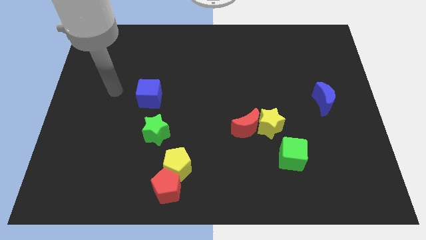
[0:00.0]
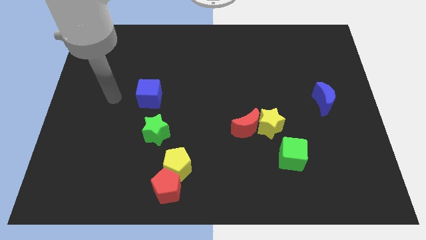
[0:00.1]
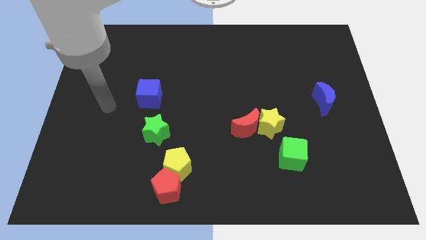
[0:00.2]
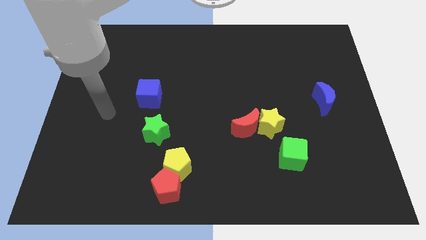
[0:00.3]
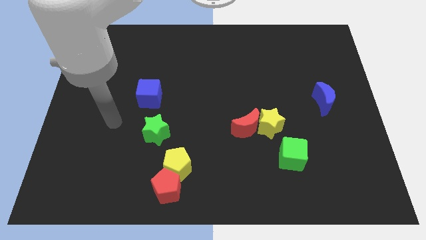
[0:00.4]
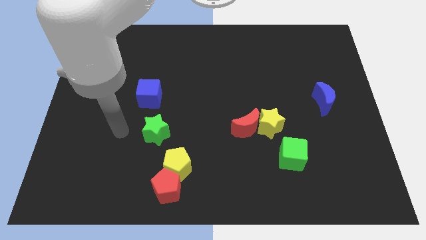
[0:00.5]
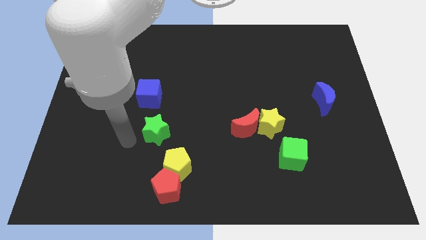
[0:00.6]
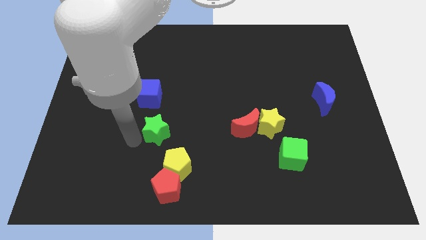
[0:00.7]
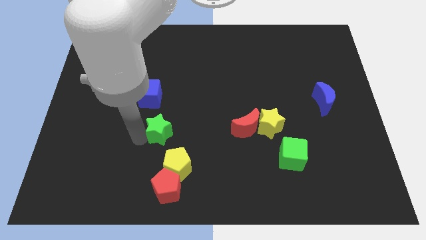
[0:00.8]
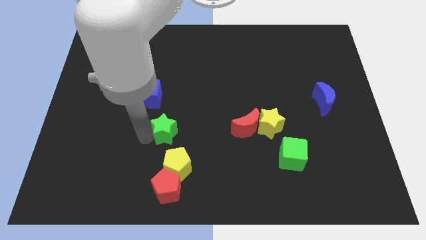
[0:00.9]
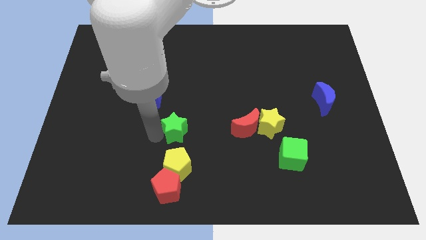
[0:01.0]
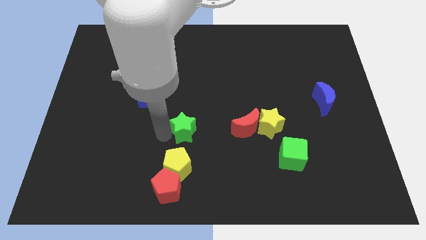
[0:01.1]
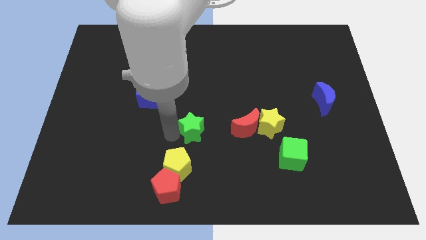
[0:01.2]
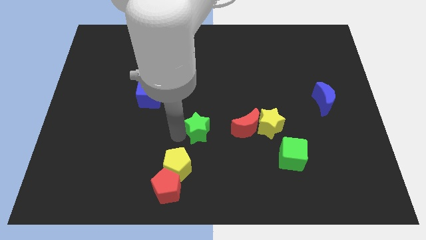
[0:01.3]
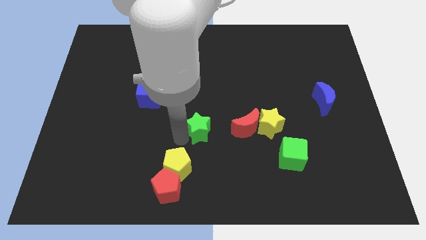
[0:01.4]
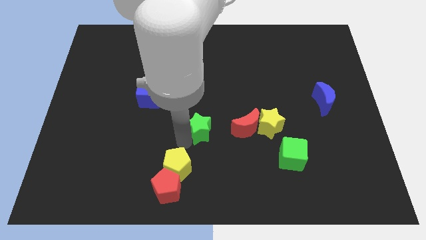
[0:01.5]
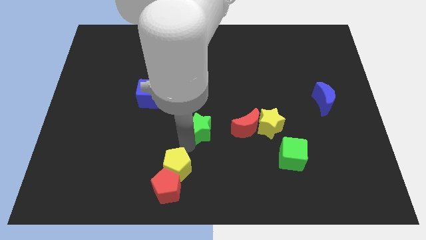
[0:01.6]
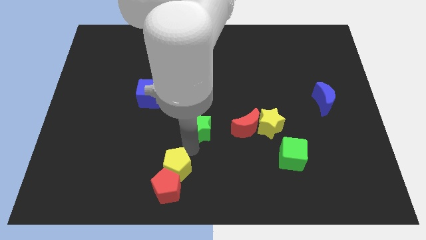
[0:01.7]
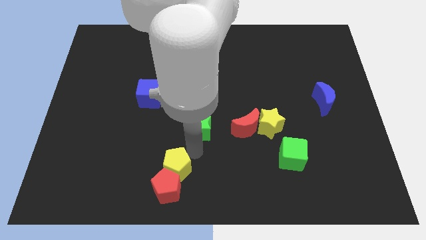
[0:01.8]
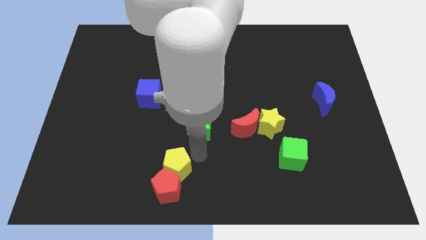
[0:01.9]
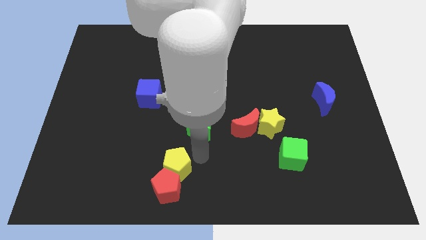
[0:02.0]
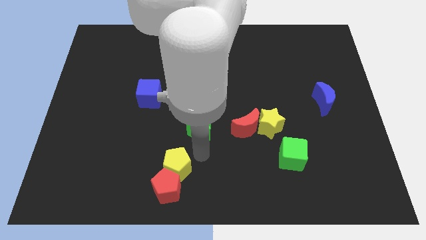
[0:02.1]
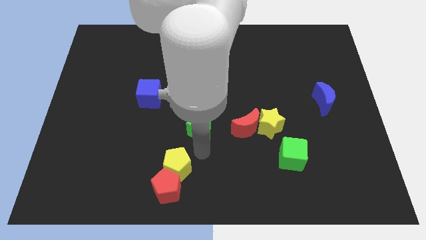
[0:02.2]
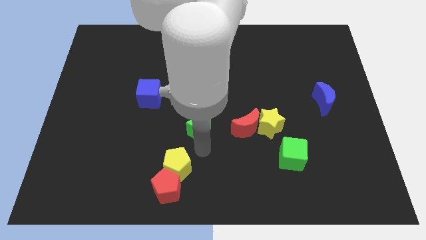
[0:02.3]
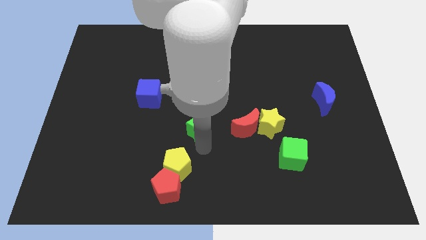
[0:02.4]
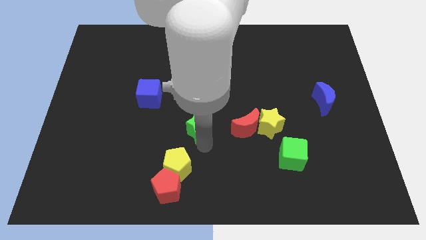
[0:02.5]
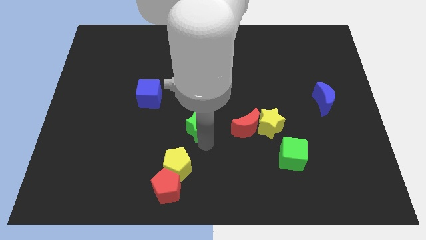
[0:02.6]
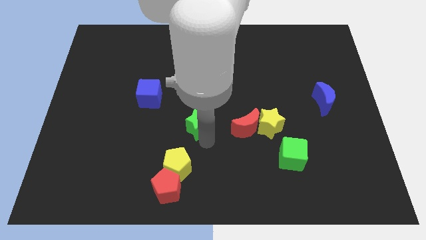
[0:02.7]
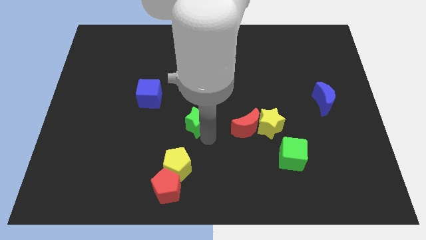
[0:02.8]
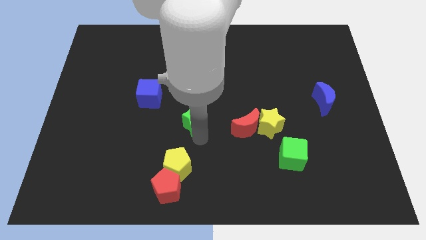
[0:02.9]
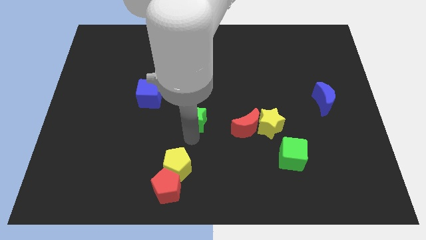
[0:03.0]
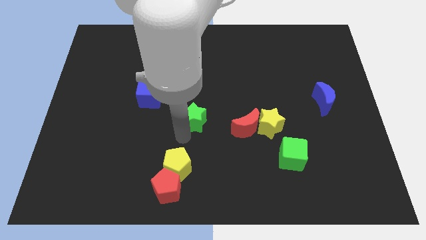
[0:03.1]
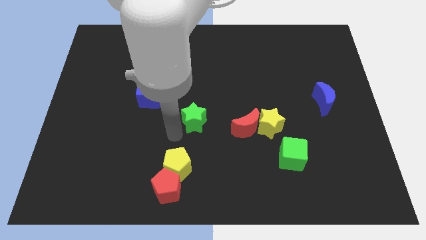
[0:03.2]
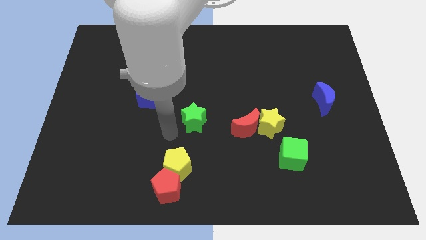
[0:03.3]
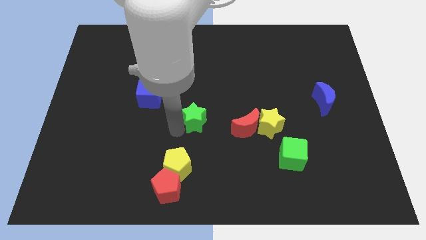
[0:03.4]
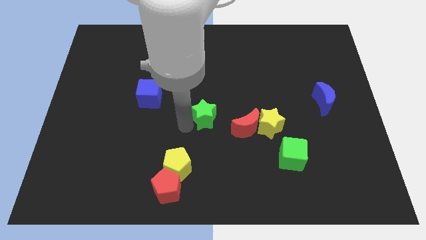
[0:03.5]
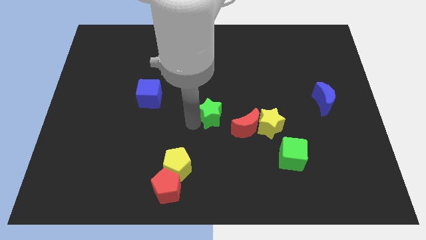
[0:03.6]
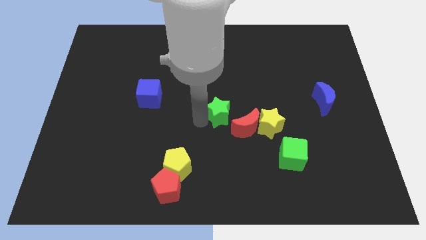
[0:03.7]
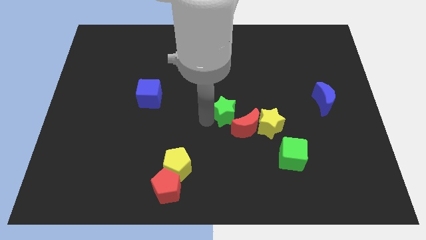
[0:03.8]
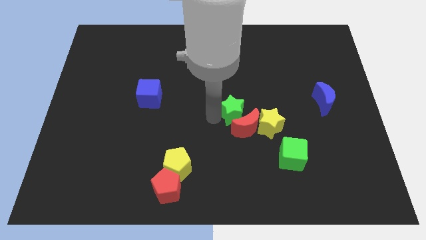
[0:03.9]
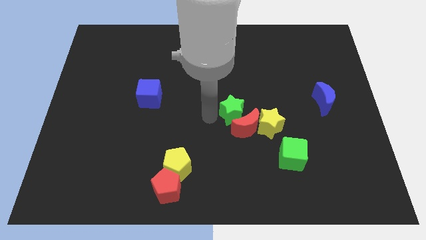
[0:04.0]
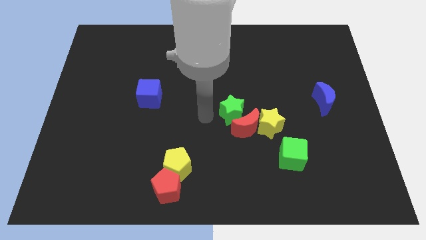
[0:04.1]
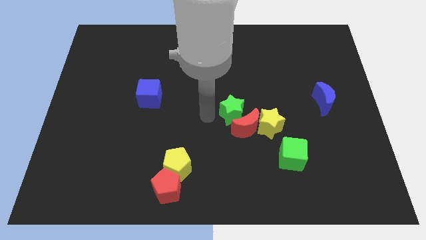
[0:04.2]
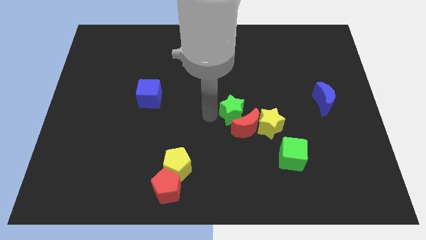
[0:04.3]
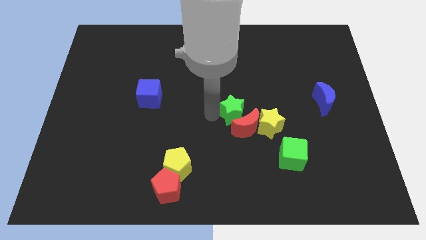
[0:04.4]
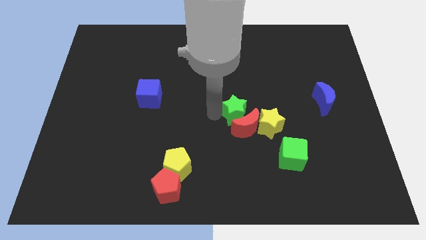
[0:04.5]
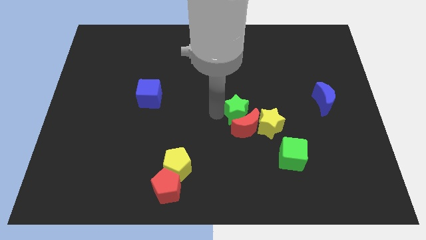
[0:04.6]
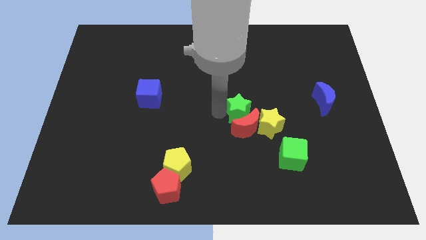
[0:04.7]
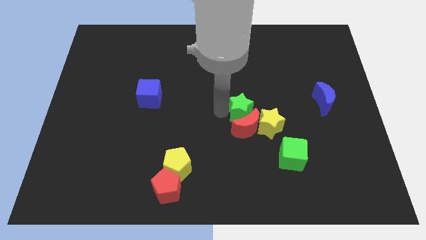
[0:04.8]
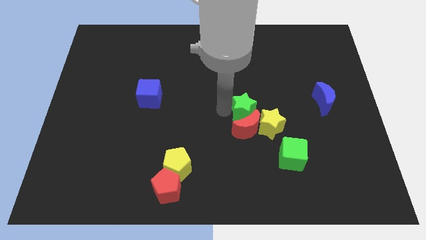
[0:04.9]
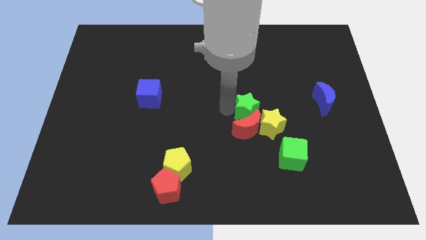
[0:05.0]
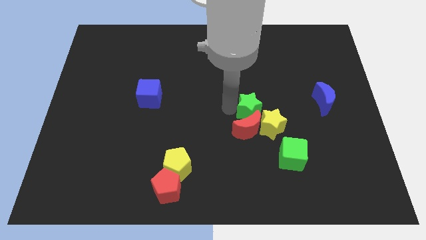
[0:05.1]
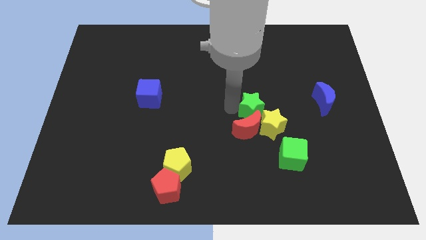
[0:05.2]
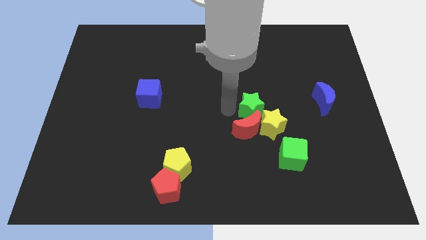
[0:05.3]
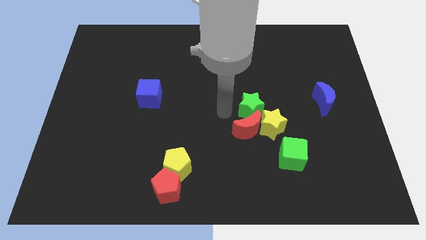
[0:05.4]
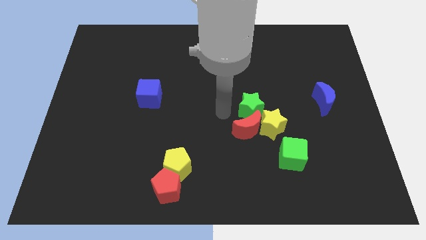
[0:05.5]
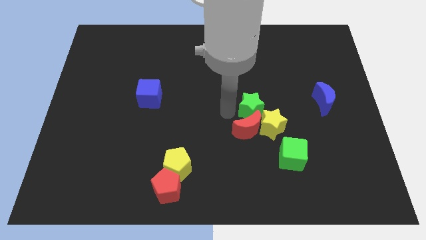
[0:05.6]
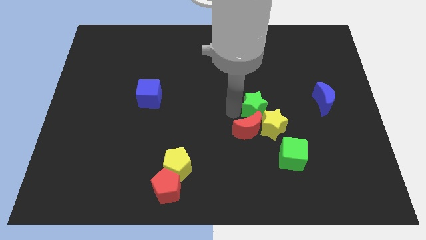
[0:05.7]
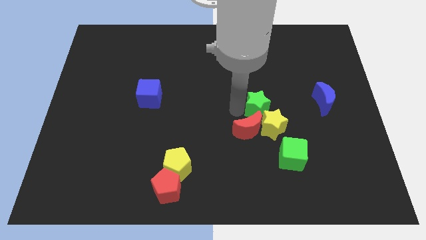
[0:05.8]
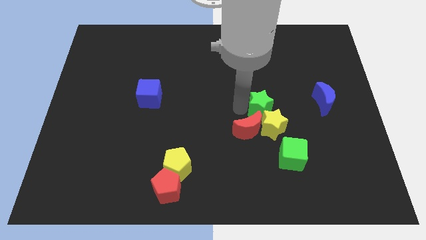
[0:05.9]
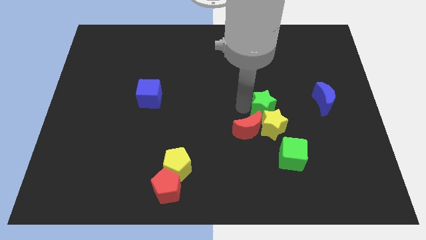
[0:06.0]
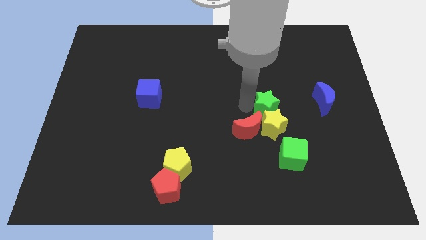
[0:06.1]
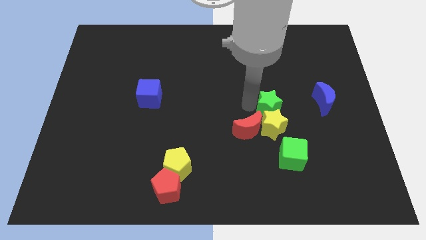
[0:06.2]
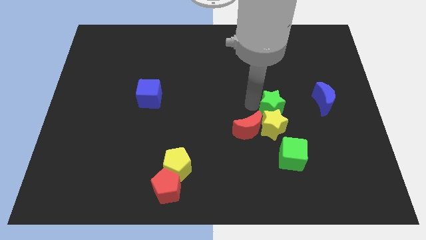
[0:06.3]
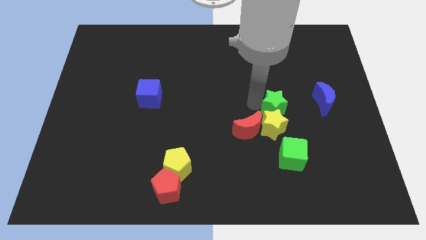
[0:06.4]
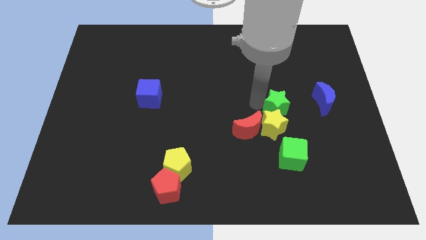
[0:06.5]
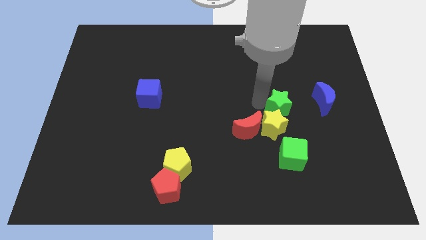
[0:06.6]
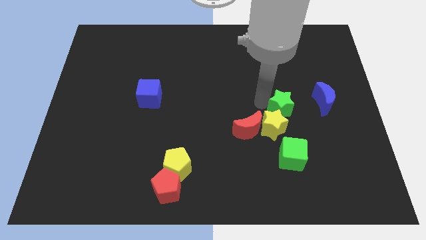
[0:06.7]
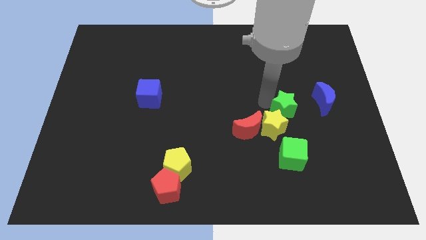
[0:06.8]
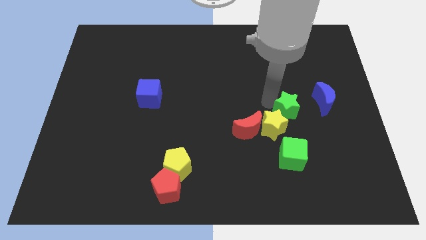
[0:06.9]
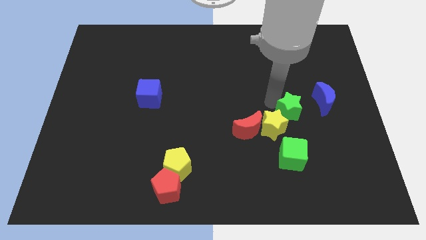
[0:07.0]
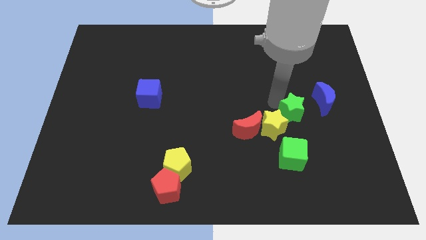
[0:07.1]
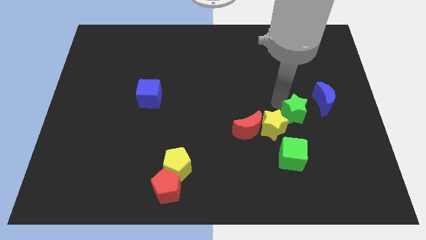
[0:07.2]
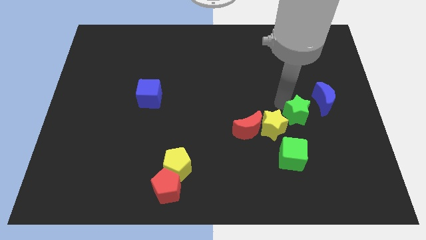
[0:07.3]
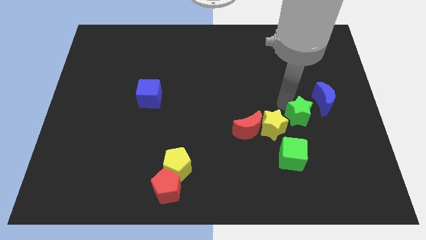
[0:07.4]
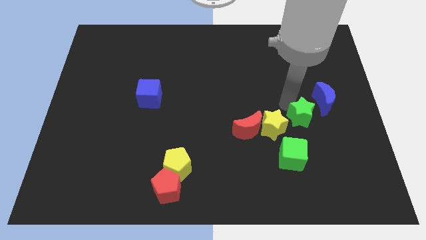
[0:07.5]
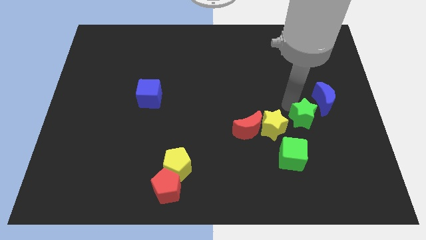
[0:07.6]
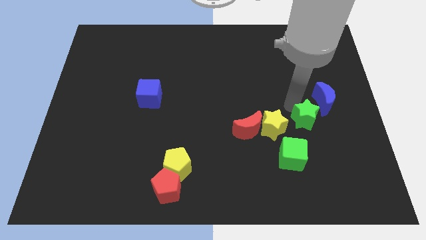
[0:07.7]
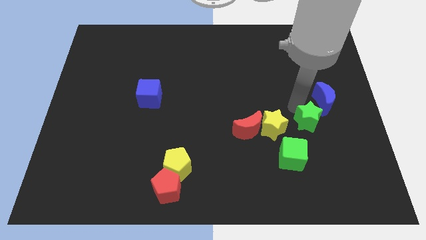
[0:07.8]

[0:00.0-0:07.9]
slide the green star to the bottom of the blue moon
